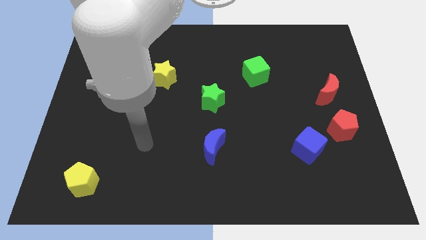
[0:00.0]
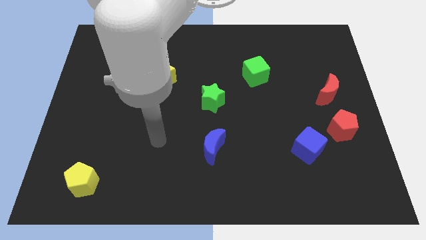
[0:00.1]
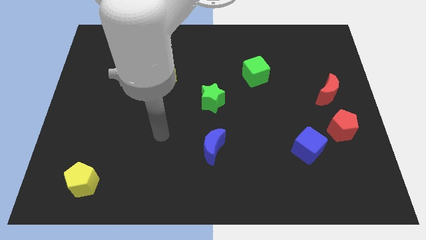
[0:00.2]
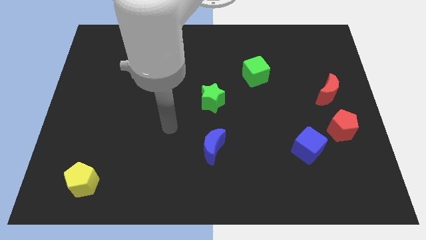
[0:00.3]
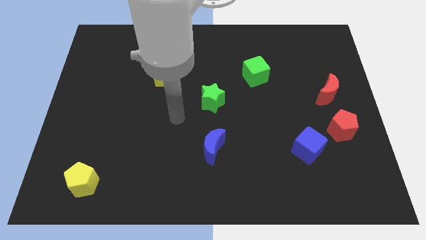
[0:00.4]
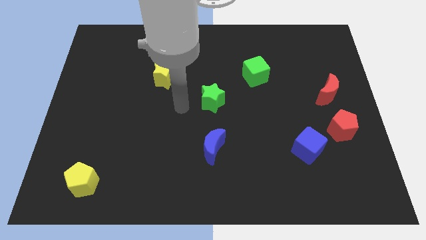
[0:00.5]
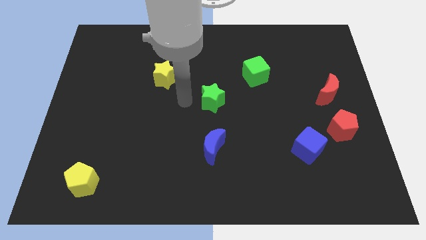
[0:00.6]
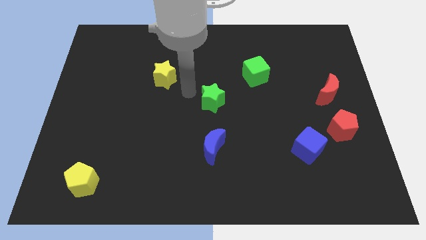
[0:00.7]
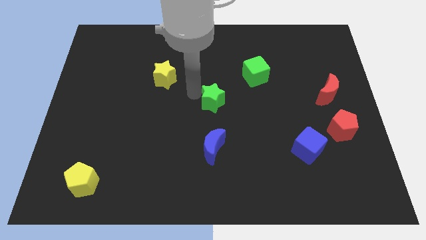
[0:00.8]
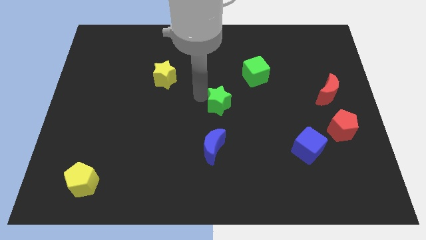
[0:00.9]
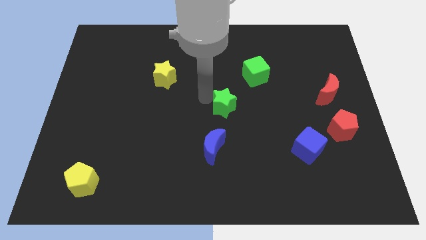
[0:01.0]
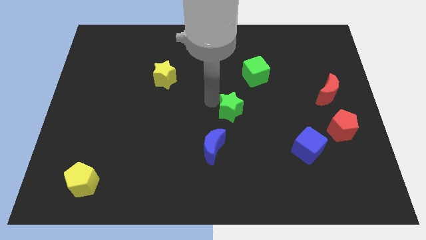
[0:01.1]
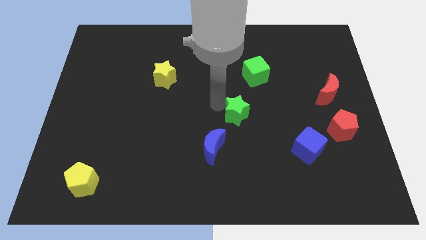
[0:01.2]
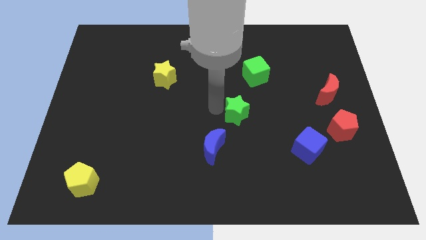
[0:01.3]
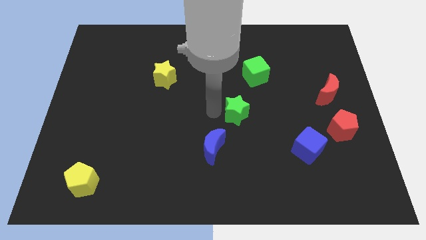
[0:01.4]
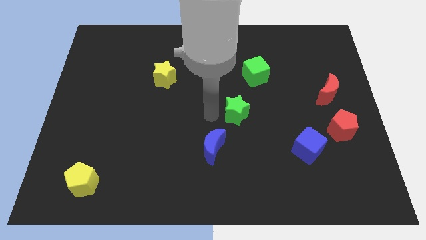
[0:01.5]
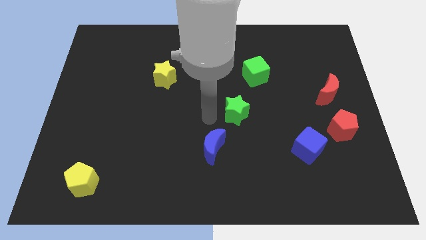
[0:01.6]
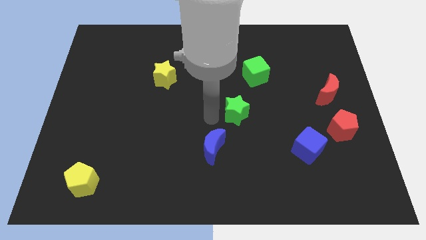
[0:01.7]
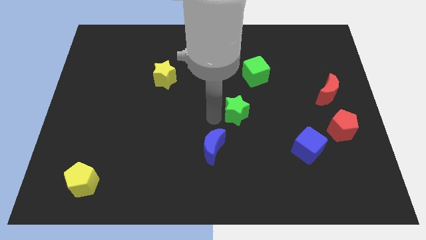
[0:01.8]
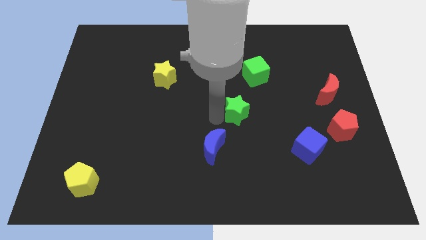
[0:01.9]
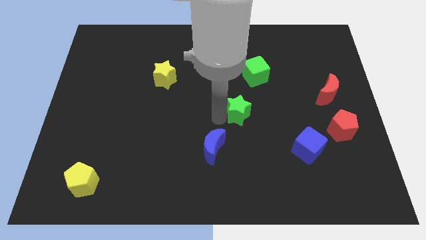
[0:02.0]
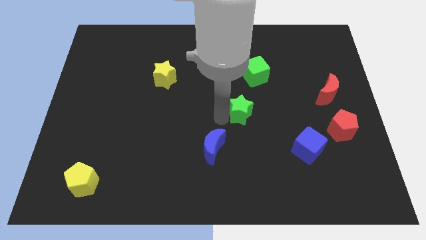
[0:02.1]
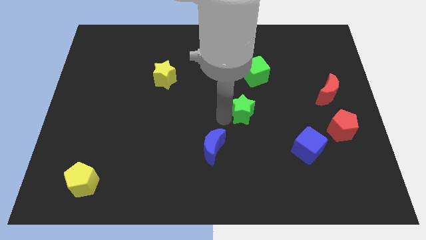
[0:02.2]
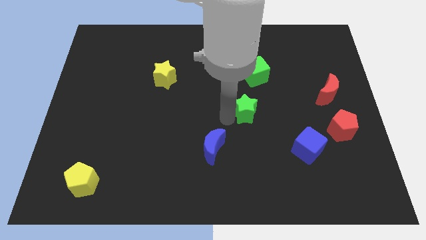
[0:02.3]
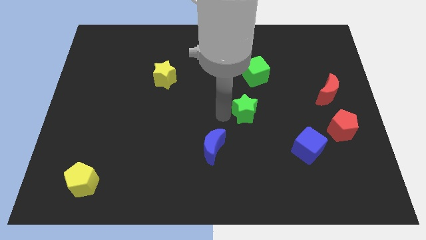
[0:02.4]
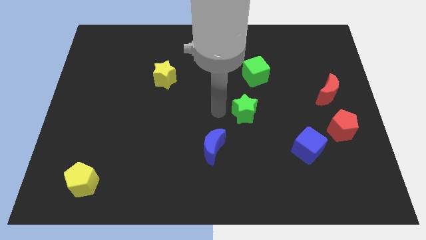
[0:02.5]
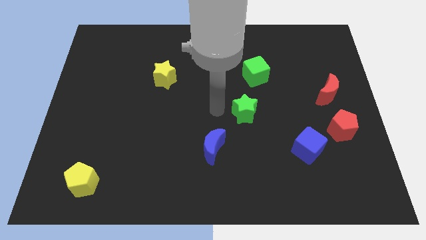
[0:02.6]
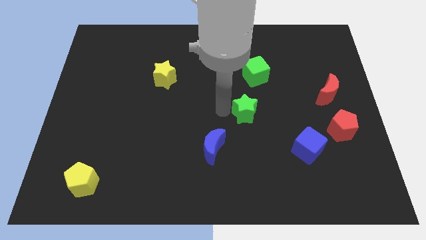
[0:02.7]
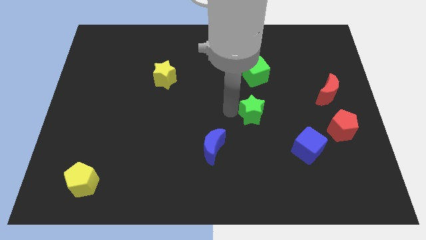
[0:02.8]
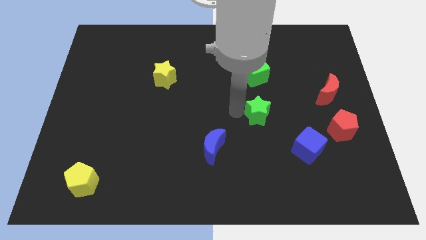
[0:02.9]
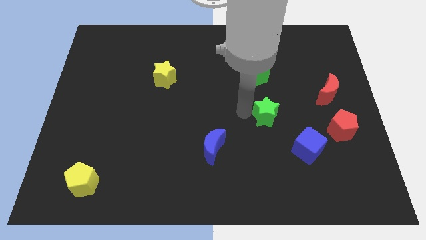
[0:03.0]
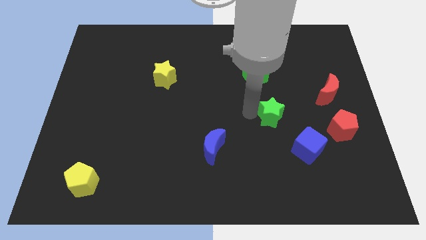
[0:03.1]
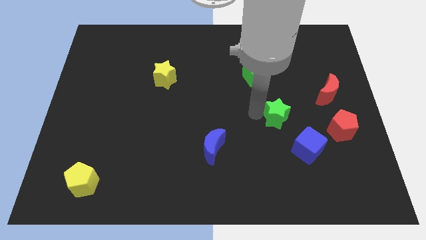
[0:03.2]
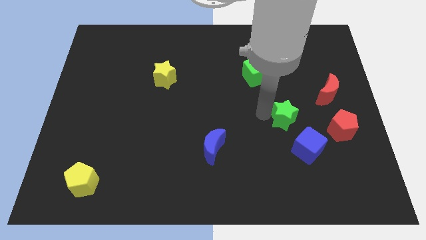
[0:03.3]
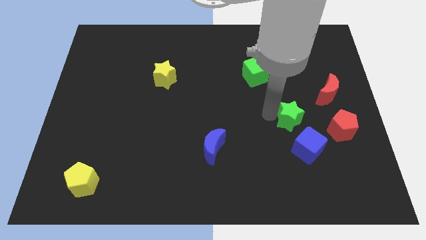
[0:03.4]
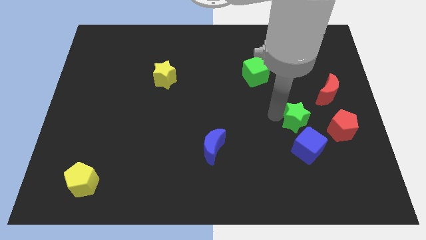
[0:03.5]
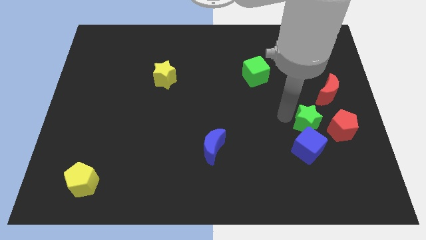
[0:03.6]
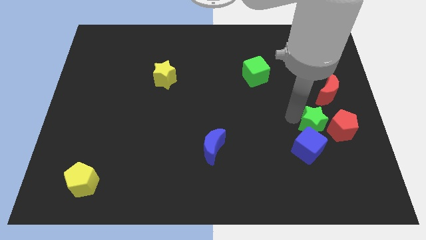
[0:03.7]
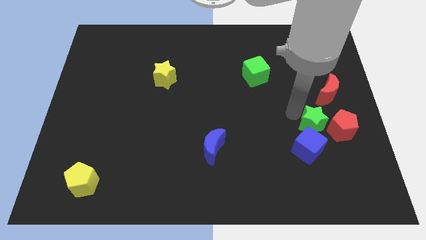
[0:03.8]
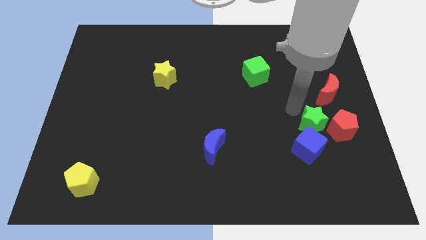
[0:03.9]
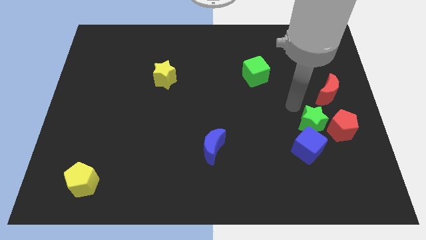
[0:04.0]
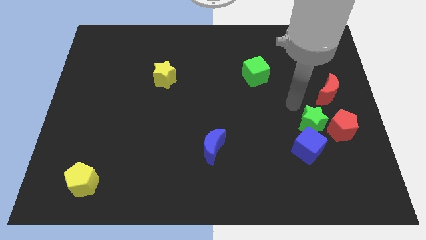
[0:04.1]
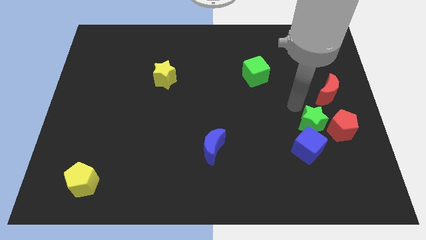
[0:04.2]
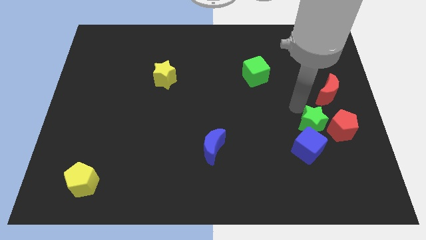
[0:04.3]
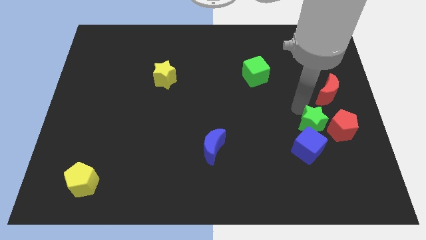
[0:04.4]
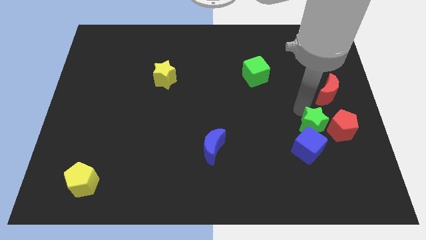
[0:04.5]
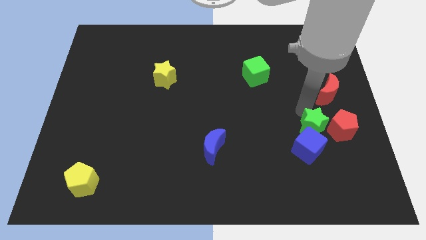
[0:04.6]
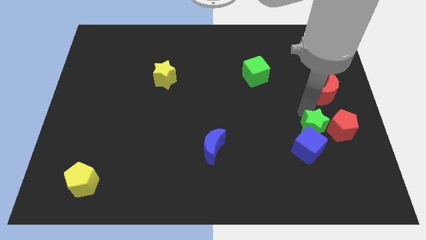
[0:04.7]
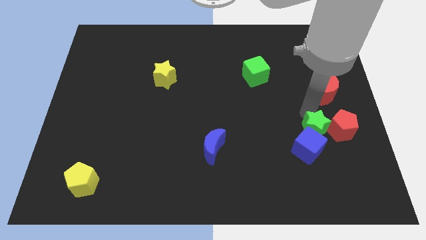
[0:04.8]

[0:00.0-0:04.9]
put the green star to the bottom of the red moon

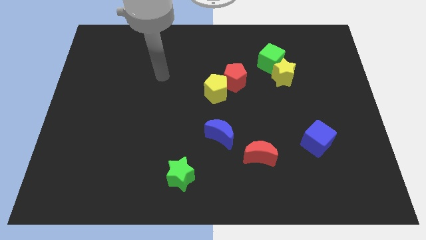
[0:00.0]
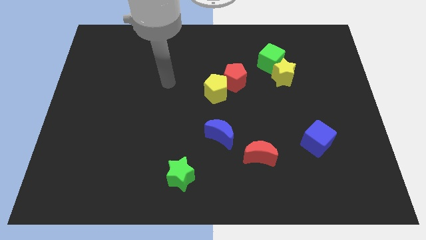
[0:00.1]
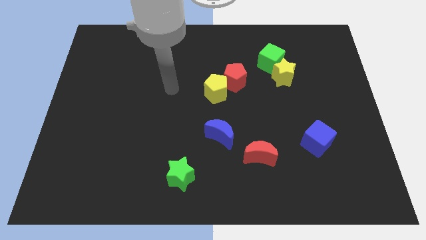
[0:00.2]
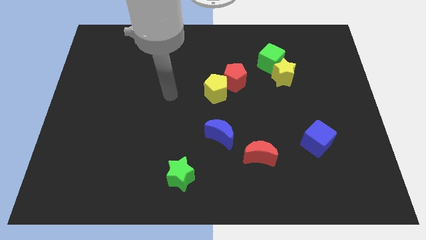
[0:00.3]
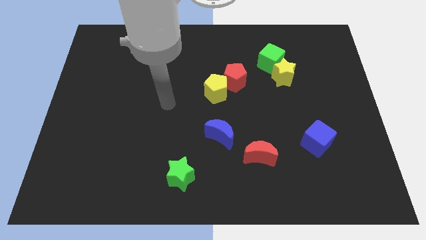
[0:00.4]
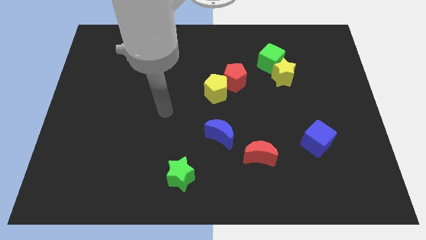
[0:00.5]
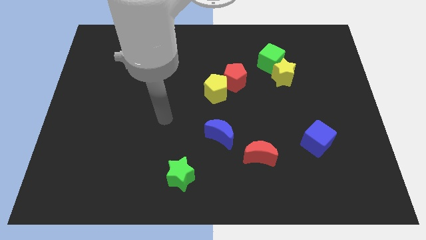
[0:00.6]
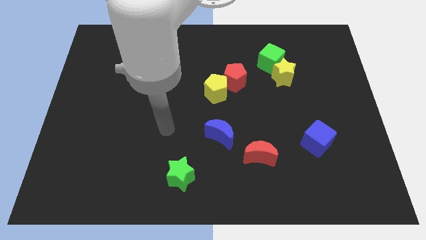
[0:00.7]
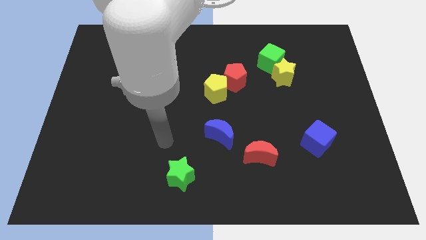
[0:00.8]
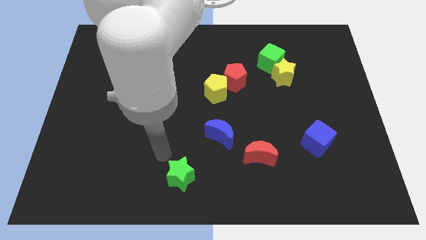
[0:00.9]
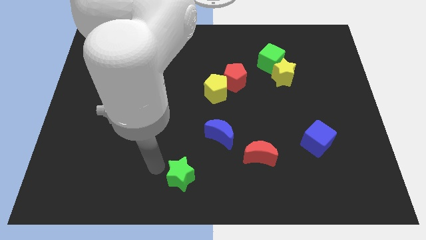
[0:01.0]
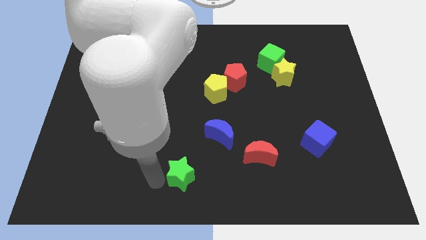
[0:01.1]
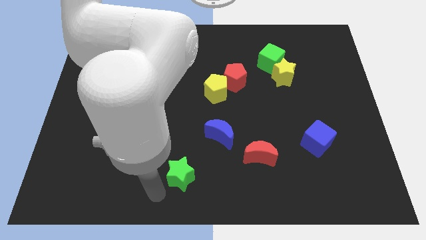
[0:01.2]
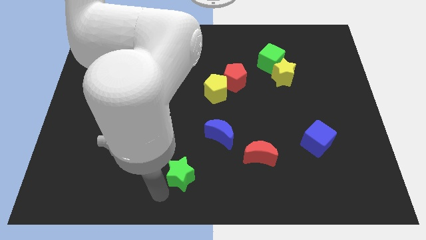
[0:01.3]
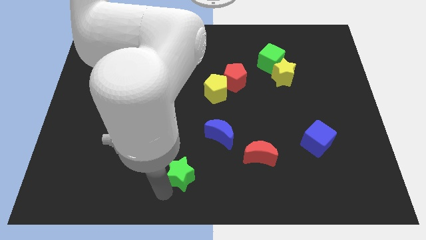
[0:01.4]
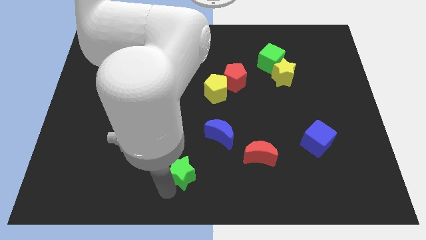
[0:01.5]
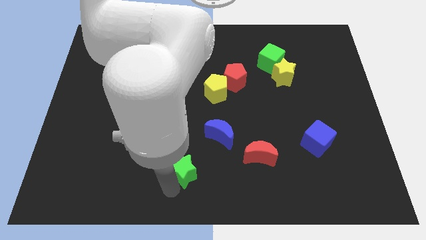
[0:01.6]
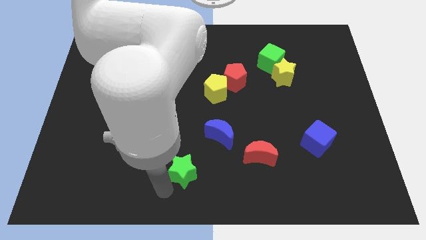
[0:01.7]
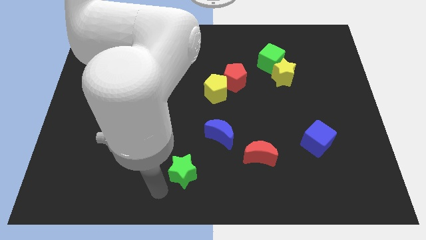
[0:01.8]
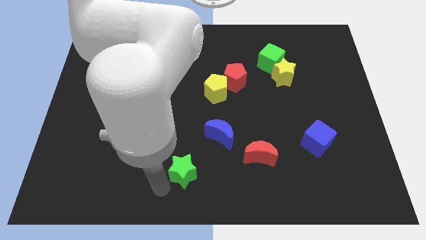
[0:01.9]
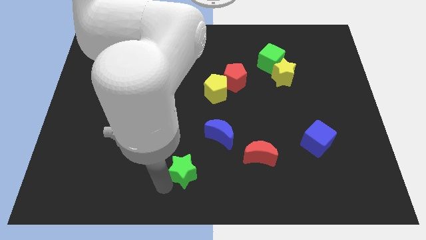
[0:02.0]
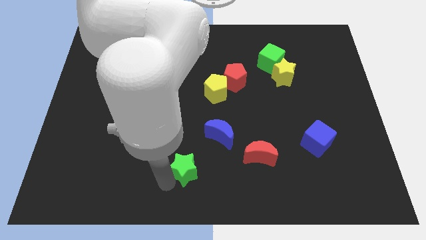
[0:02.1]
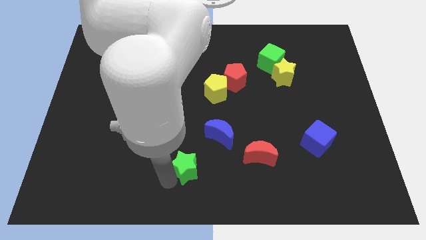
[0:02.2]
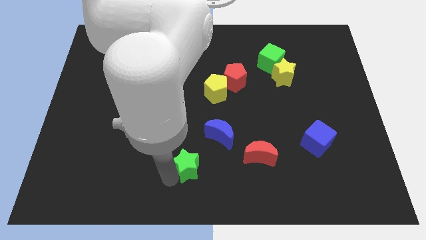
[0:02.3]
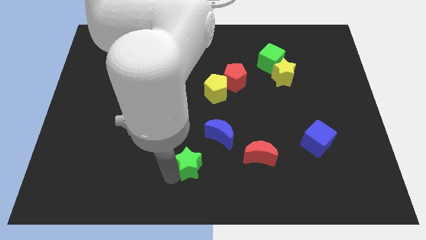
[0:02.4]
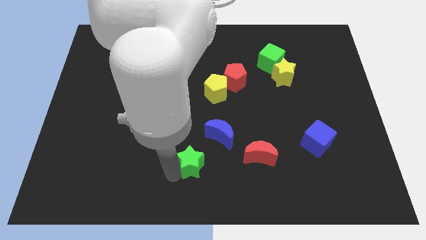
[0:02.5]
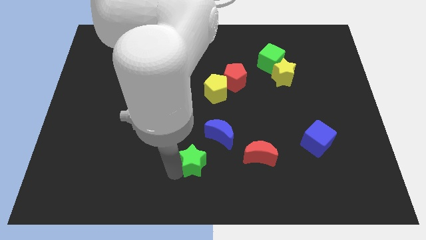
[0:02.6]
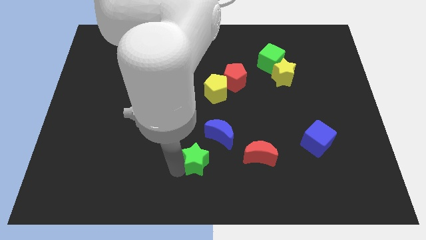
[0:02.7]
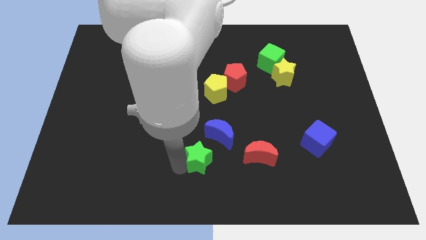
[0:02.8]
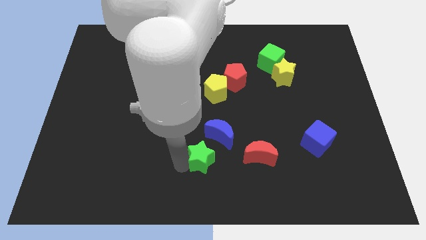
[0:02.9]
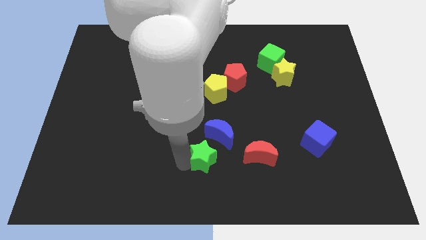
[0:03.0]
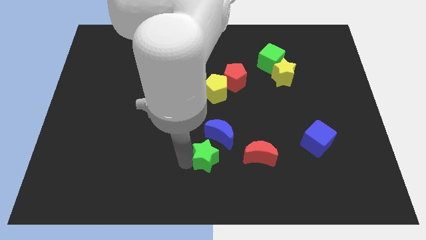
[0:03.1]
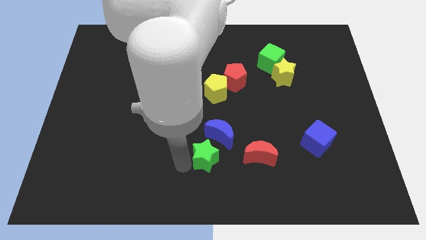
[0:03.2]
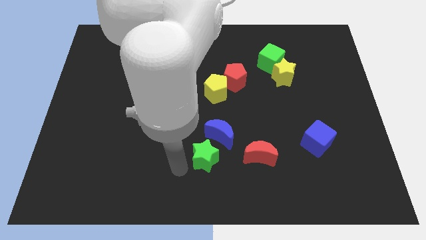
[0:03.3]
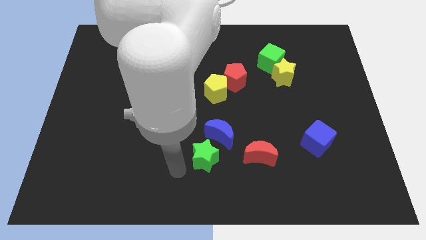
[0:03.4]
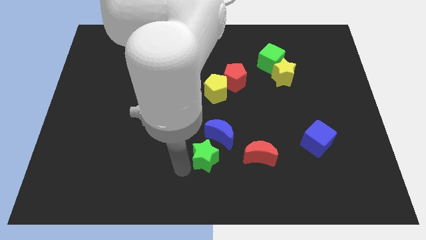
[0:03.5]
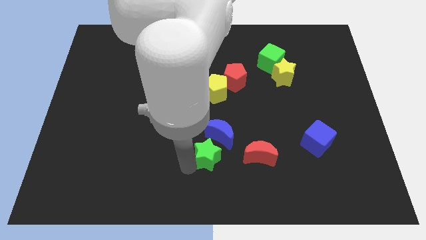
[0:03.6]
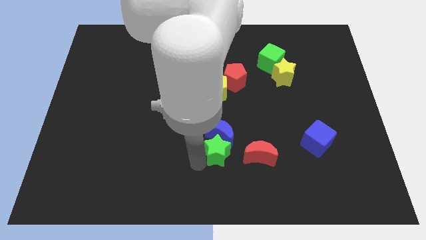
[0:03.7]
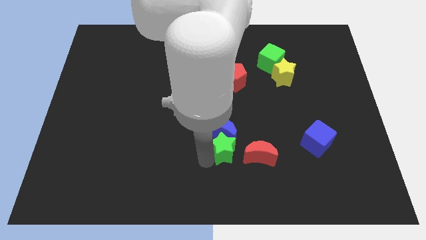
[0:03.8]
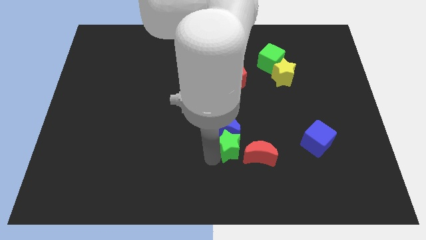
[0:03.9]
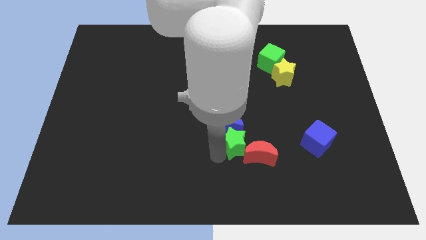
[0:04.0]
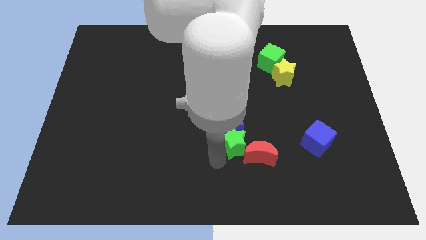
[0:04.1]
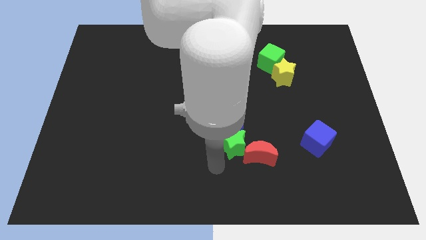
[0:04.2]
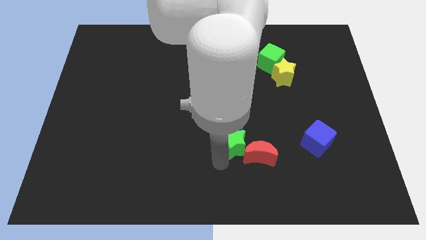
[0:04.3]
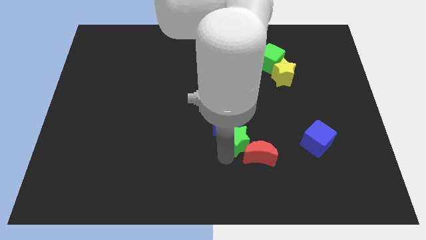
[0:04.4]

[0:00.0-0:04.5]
move the green star above the red moon
